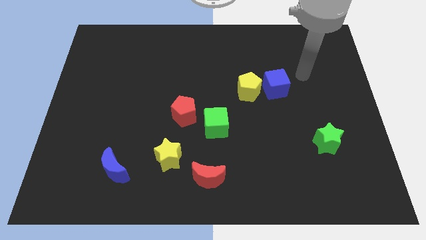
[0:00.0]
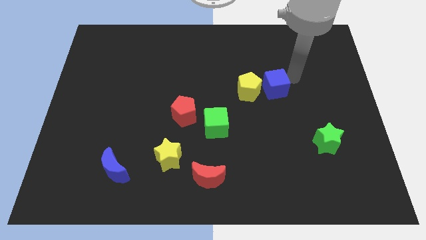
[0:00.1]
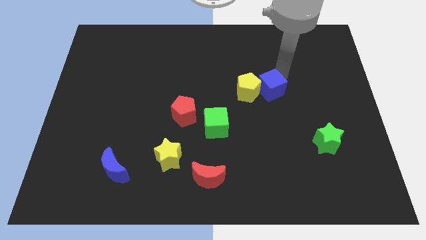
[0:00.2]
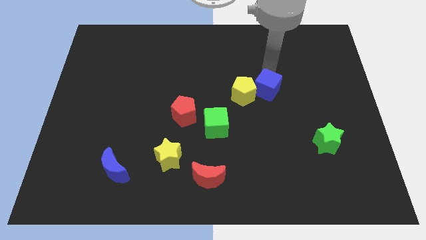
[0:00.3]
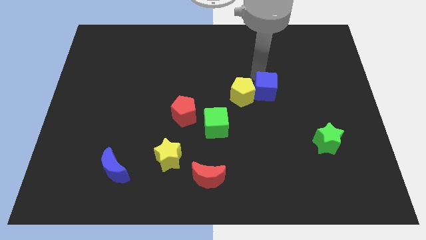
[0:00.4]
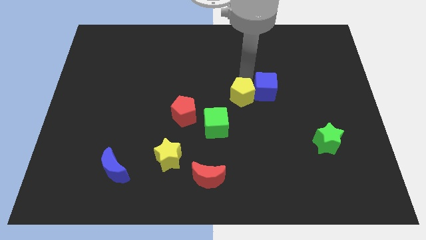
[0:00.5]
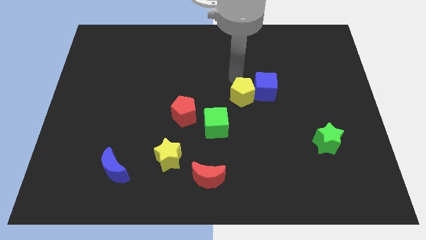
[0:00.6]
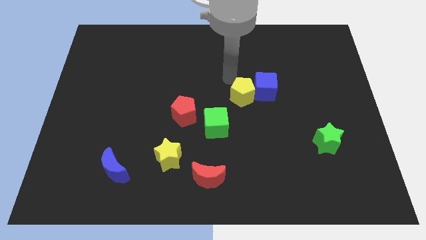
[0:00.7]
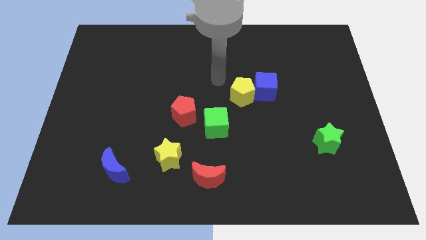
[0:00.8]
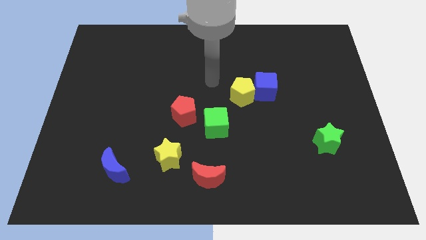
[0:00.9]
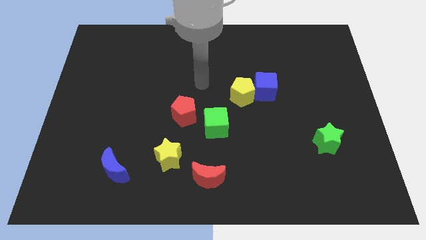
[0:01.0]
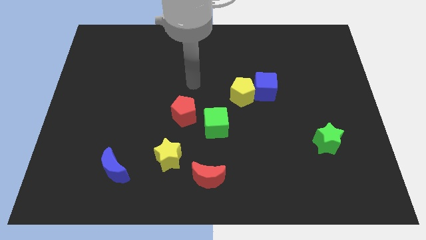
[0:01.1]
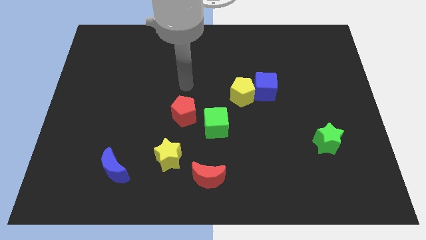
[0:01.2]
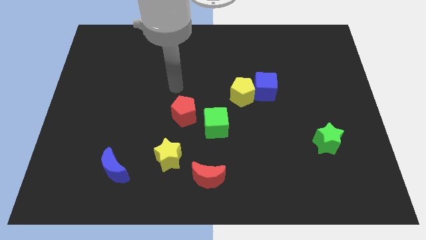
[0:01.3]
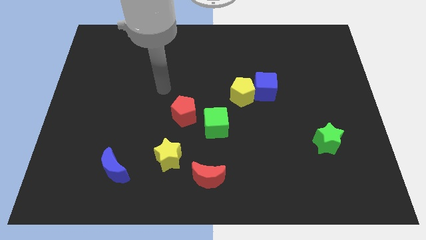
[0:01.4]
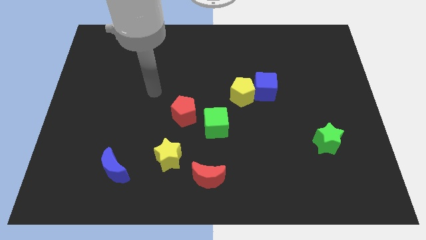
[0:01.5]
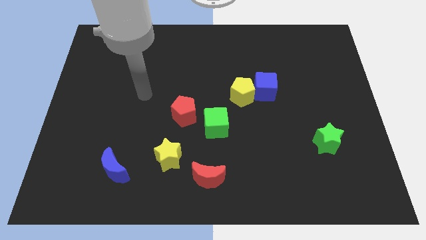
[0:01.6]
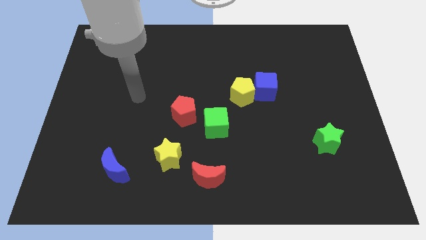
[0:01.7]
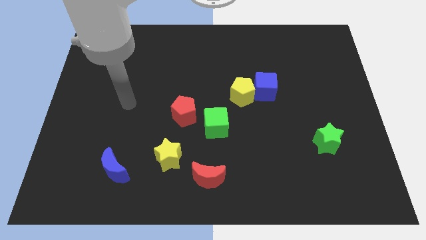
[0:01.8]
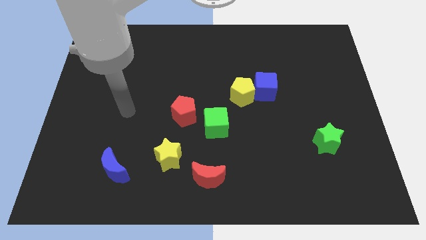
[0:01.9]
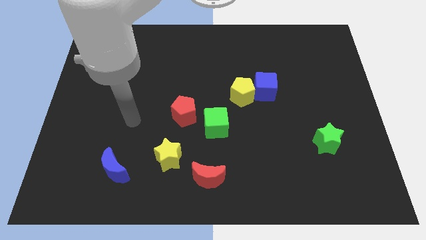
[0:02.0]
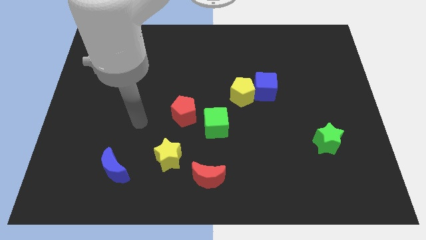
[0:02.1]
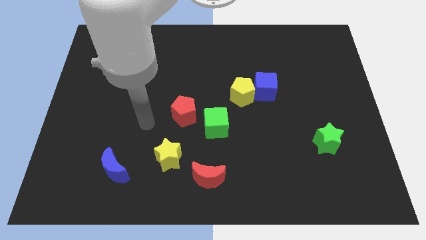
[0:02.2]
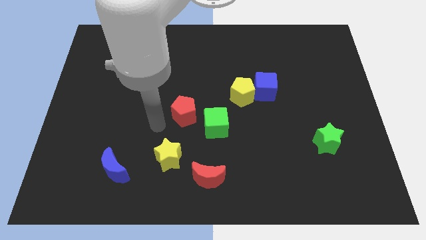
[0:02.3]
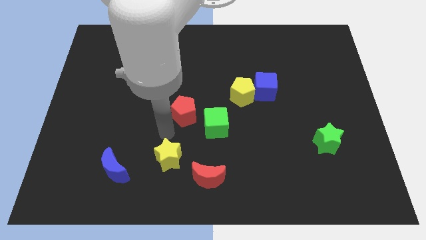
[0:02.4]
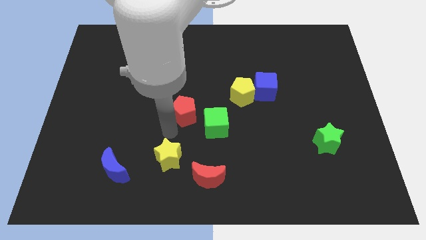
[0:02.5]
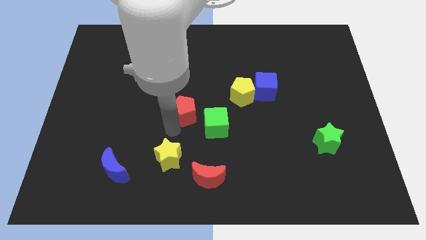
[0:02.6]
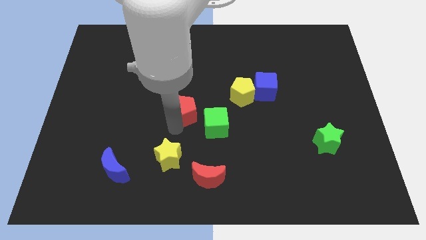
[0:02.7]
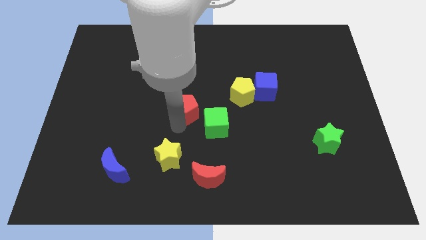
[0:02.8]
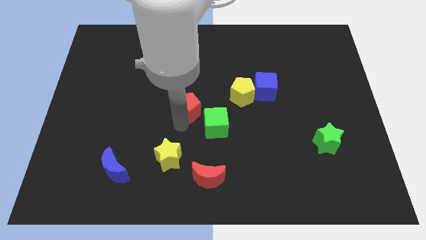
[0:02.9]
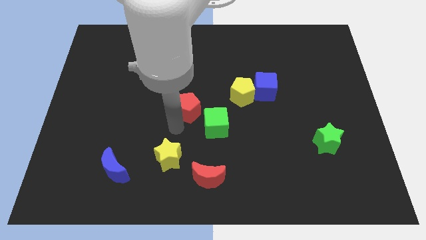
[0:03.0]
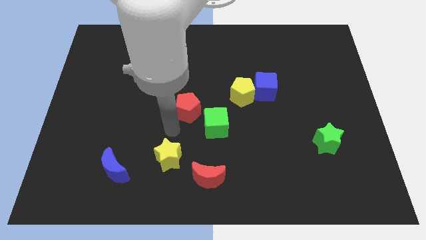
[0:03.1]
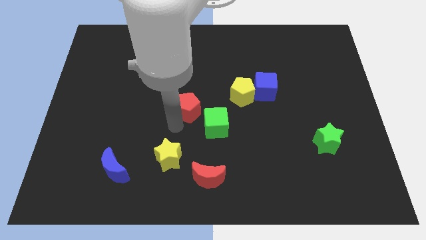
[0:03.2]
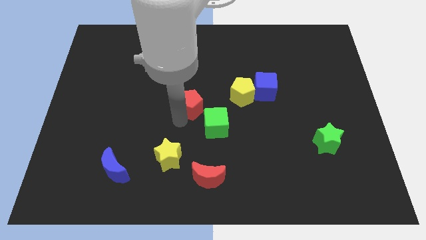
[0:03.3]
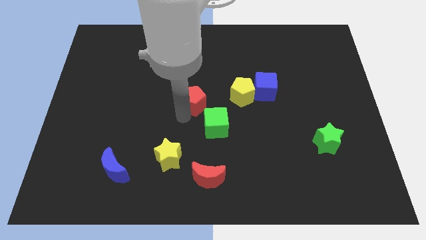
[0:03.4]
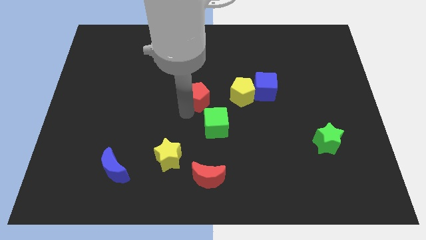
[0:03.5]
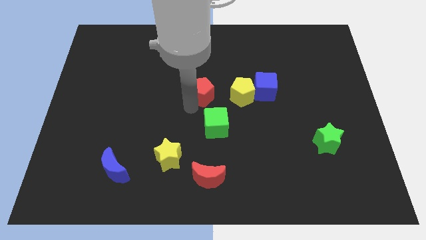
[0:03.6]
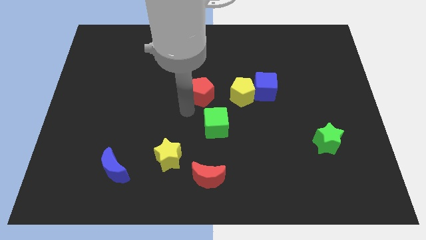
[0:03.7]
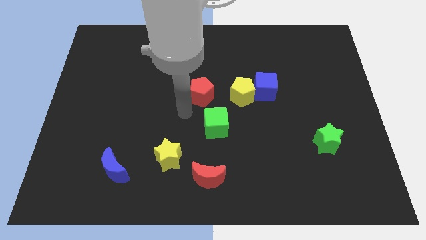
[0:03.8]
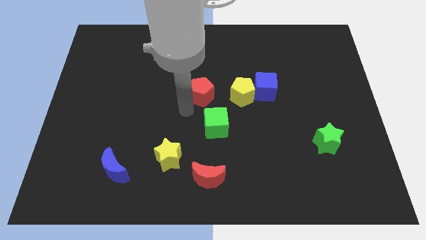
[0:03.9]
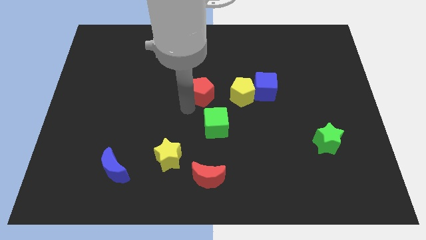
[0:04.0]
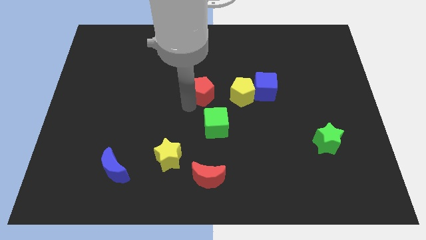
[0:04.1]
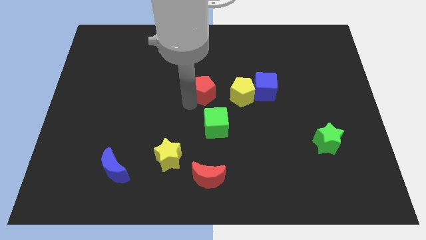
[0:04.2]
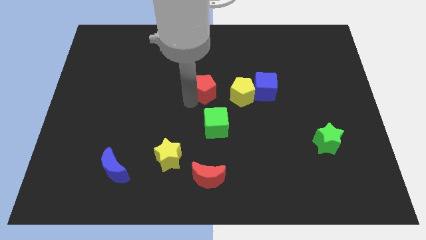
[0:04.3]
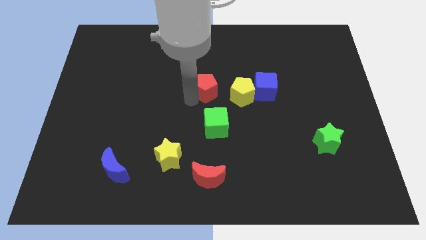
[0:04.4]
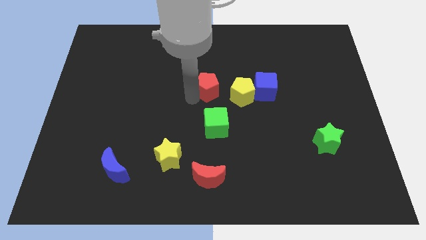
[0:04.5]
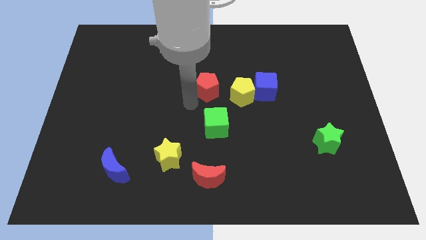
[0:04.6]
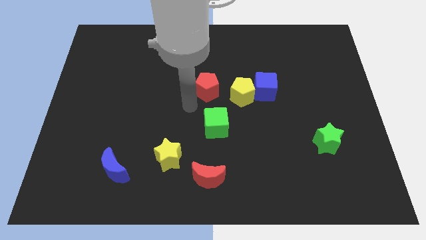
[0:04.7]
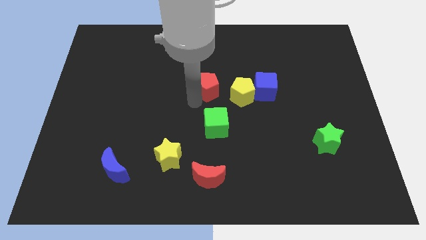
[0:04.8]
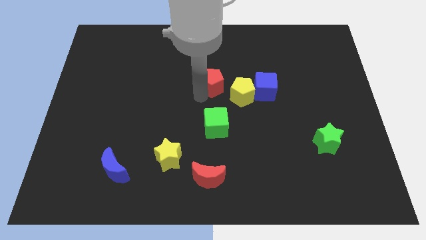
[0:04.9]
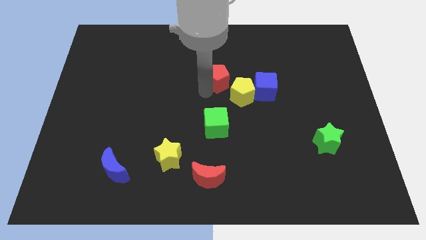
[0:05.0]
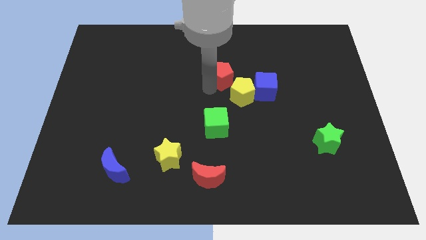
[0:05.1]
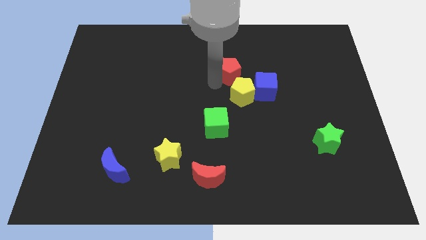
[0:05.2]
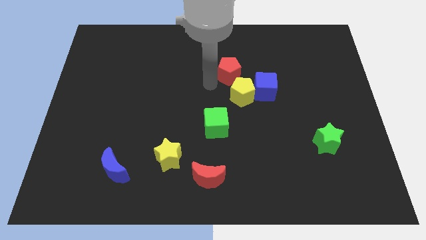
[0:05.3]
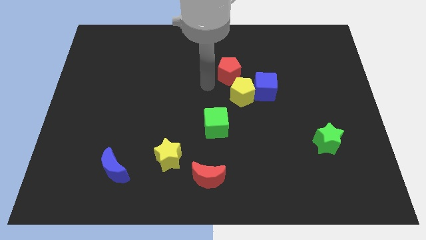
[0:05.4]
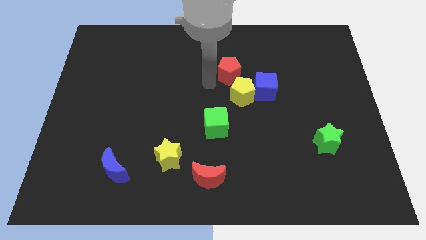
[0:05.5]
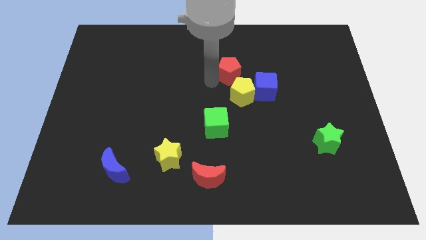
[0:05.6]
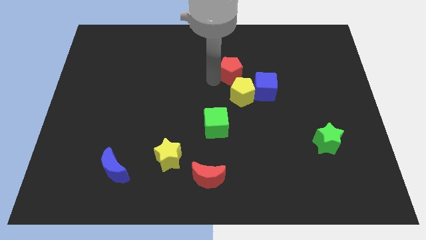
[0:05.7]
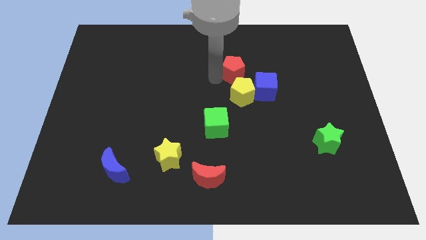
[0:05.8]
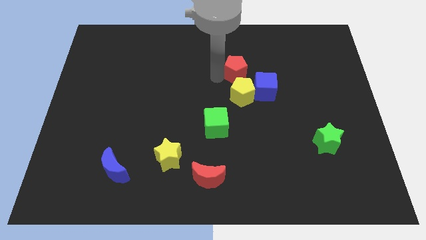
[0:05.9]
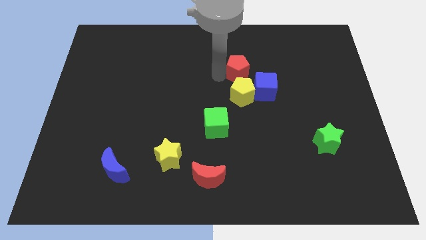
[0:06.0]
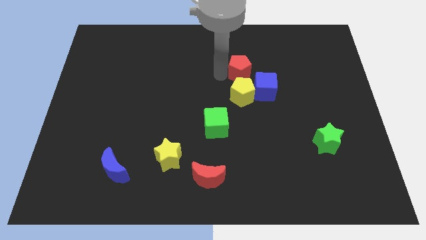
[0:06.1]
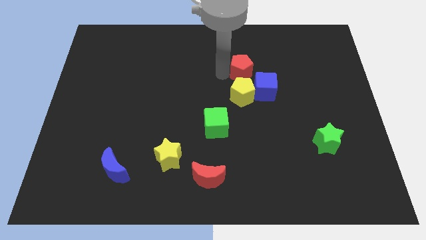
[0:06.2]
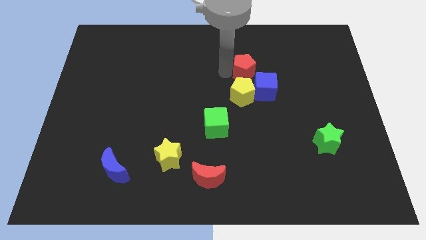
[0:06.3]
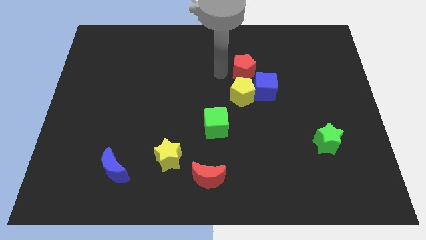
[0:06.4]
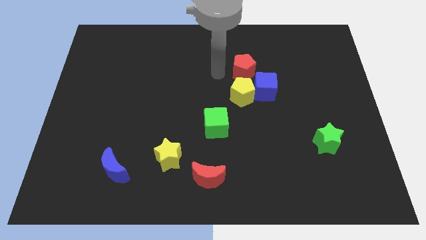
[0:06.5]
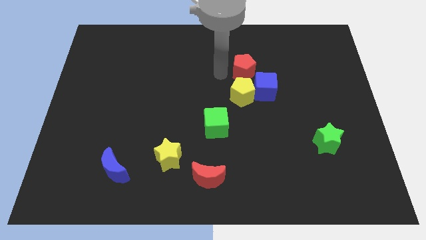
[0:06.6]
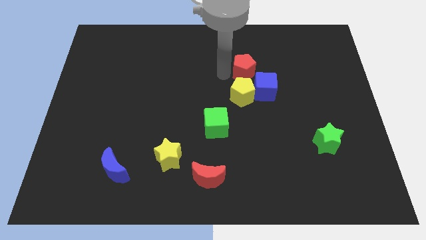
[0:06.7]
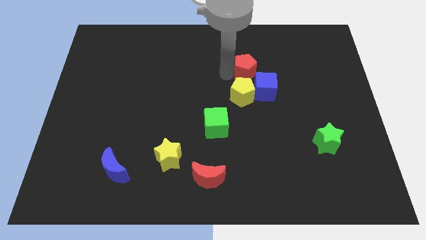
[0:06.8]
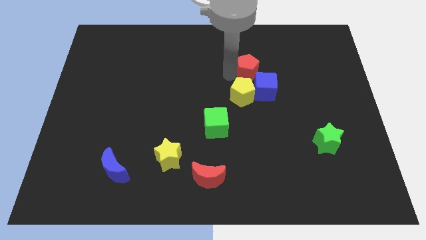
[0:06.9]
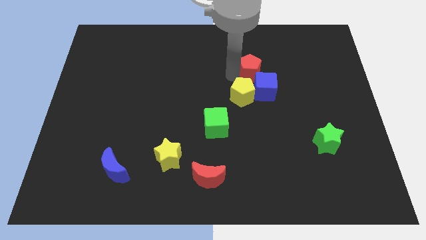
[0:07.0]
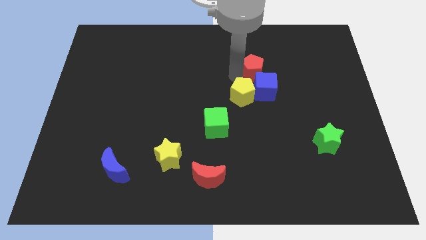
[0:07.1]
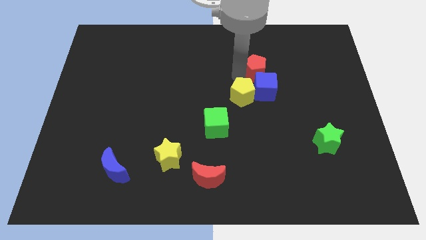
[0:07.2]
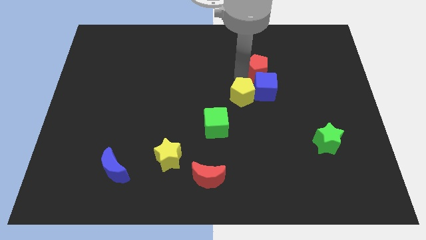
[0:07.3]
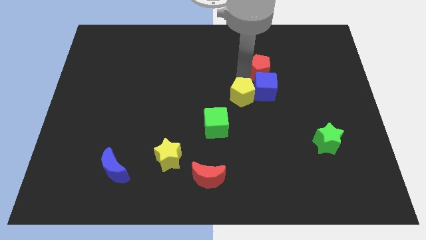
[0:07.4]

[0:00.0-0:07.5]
put the red pentagon to the top right side of the blue cube
